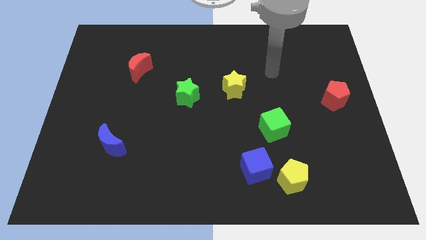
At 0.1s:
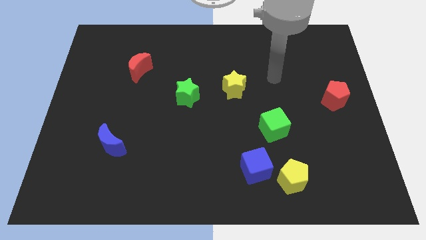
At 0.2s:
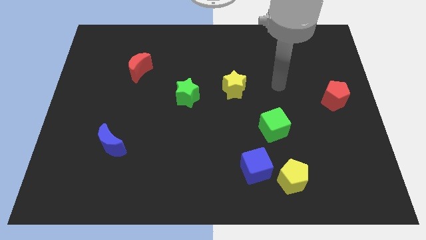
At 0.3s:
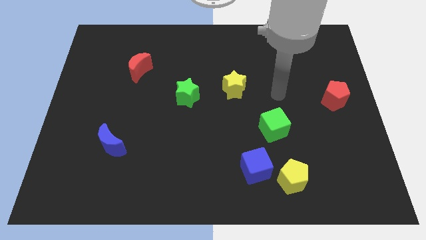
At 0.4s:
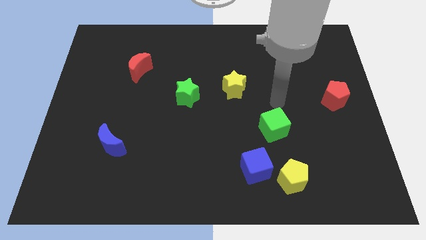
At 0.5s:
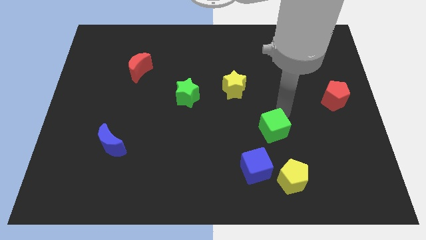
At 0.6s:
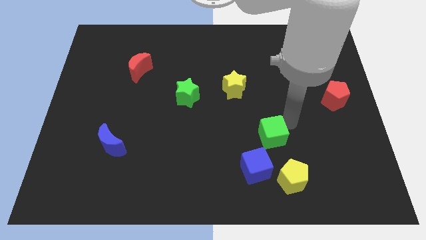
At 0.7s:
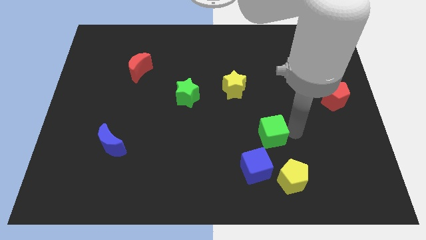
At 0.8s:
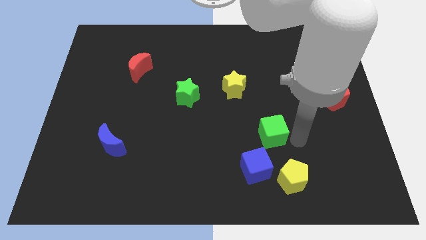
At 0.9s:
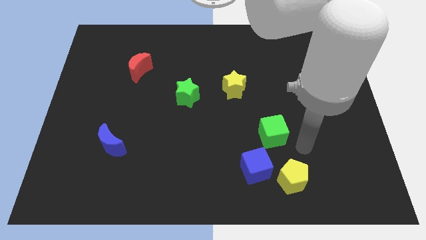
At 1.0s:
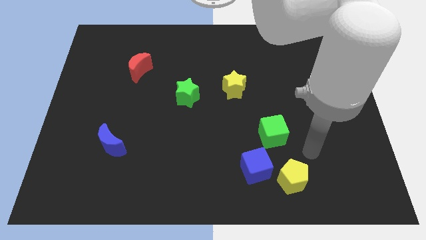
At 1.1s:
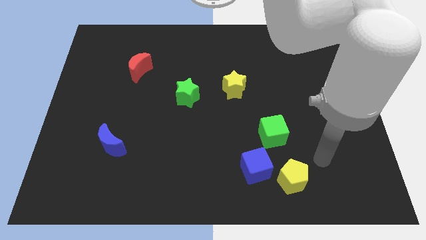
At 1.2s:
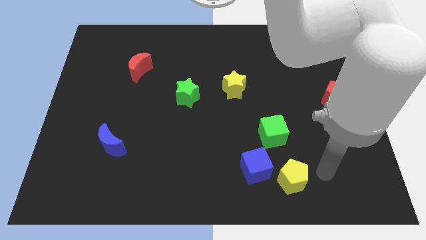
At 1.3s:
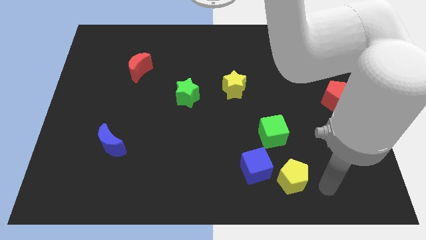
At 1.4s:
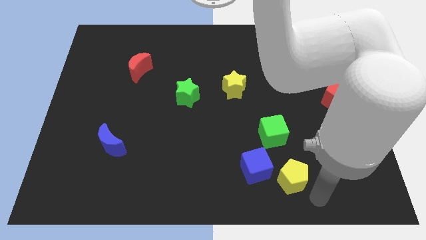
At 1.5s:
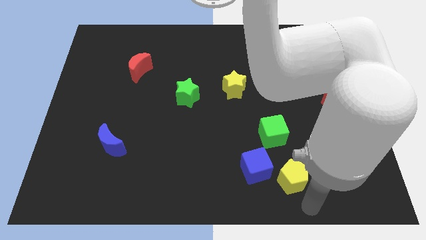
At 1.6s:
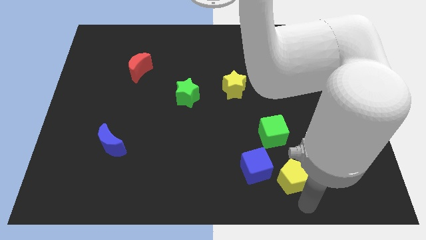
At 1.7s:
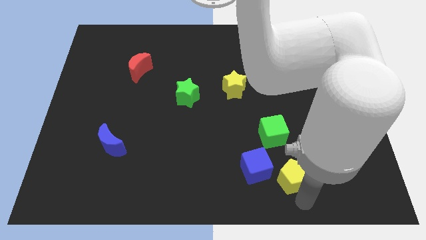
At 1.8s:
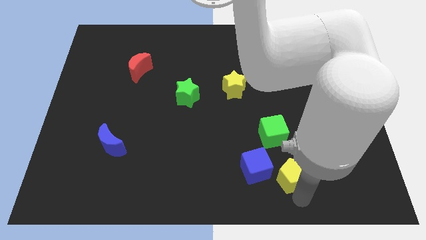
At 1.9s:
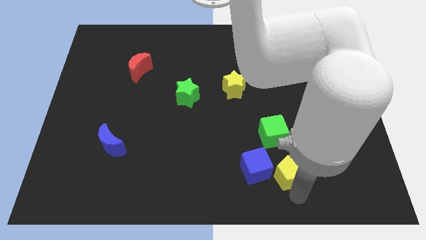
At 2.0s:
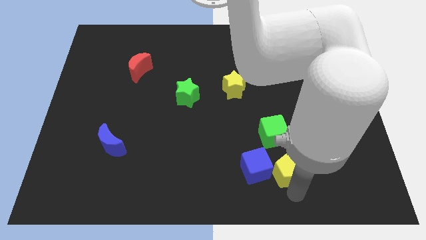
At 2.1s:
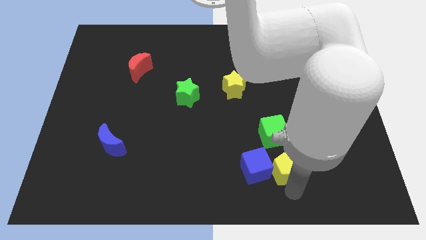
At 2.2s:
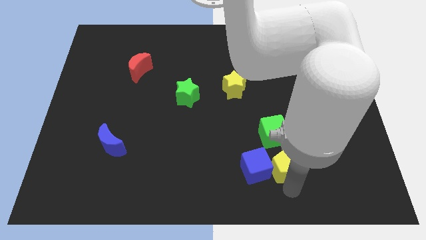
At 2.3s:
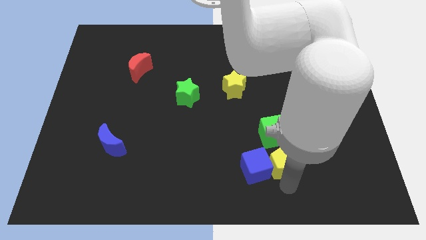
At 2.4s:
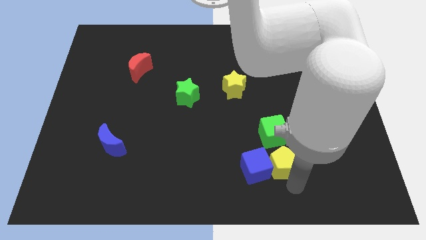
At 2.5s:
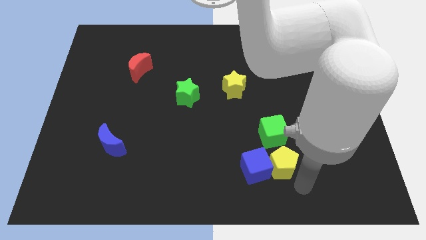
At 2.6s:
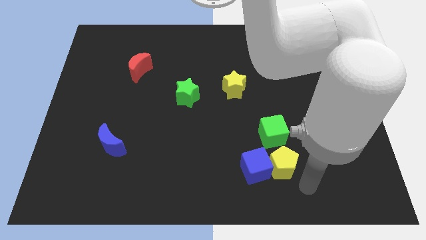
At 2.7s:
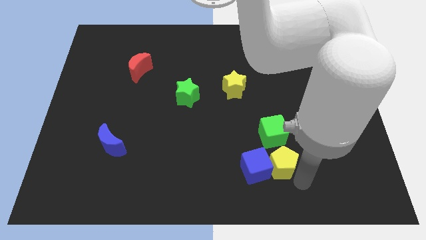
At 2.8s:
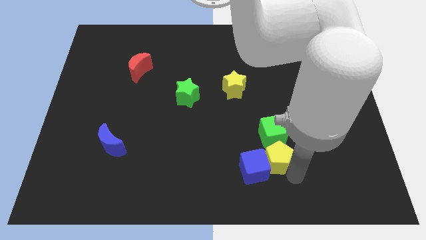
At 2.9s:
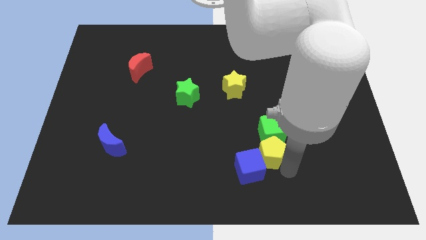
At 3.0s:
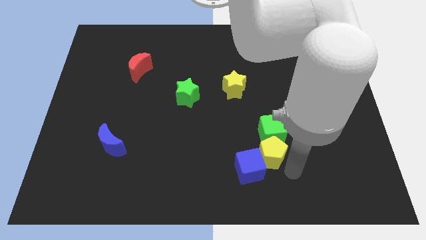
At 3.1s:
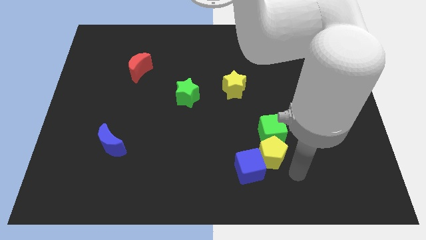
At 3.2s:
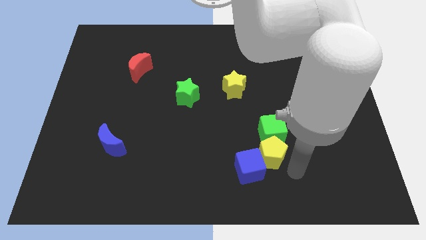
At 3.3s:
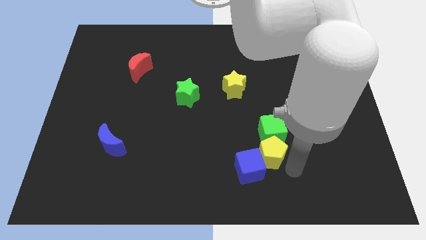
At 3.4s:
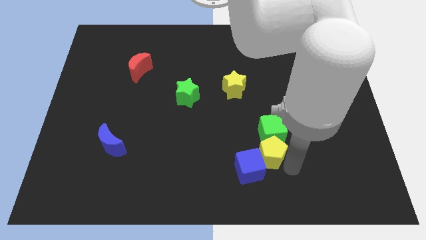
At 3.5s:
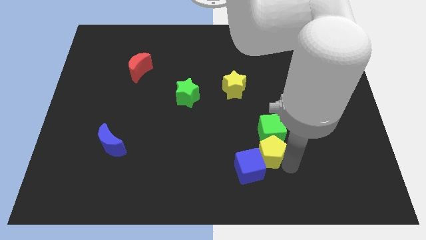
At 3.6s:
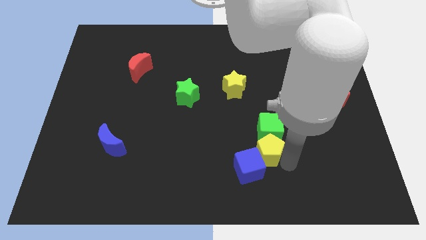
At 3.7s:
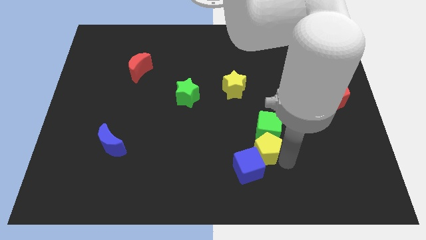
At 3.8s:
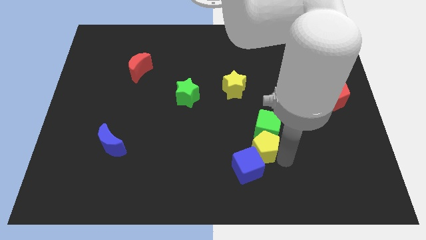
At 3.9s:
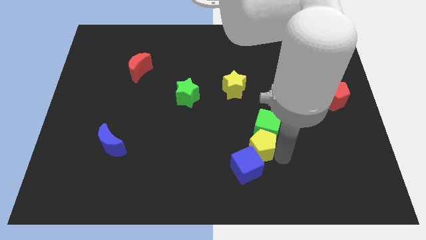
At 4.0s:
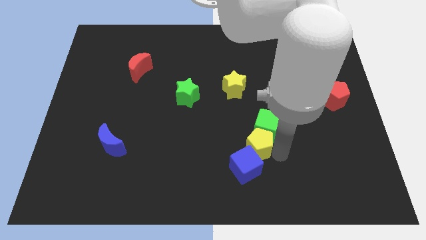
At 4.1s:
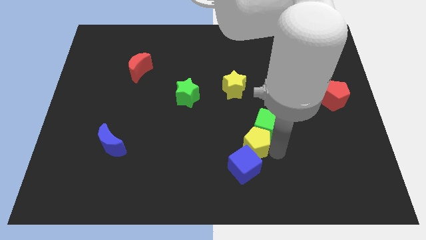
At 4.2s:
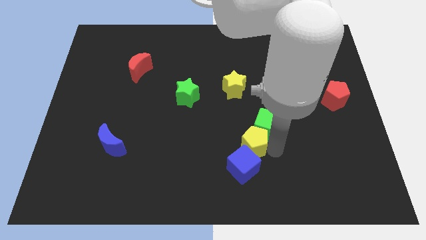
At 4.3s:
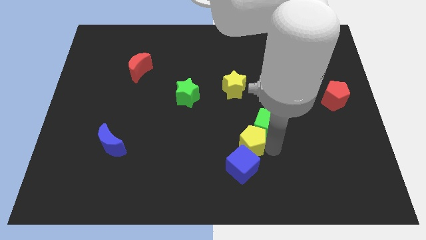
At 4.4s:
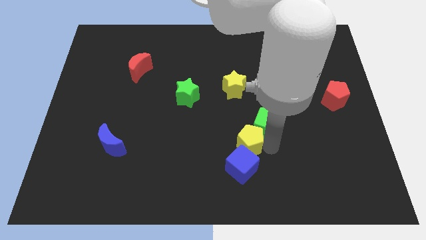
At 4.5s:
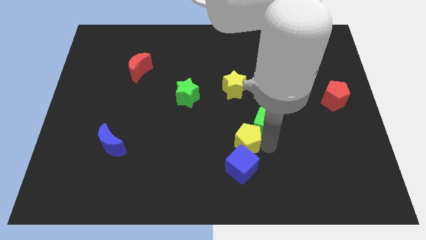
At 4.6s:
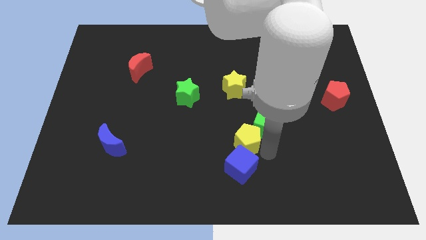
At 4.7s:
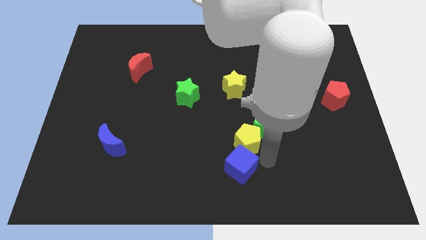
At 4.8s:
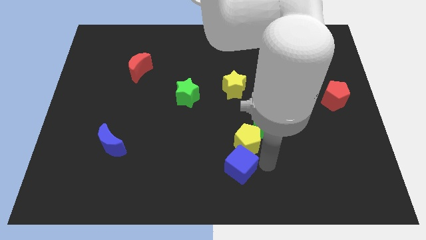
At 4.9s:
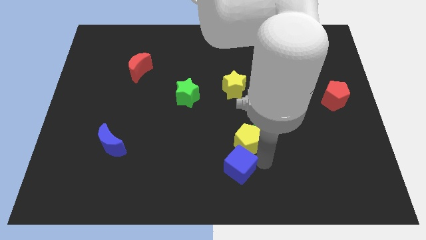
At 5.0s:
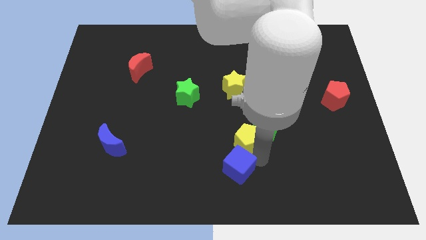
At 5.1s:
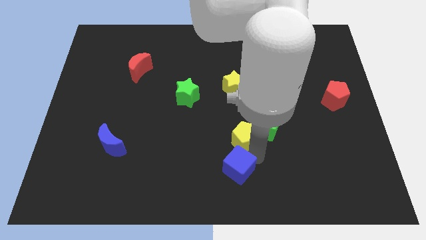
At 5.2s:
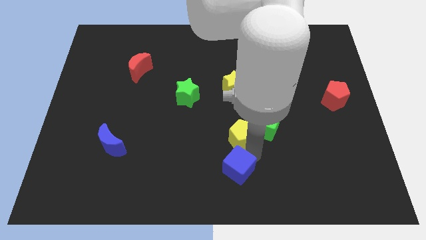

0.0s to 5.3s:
push the yellow pentagon to the center of the board
